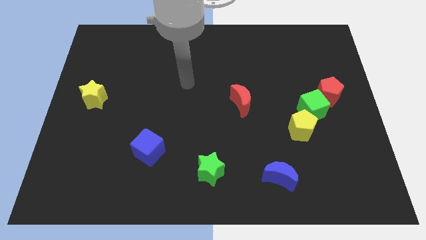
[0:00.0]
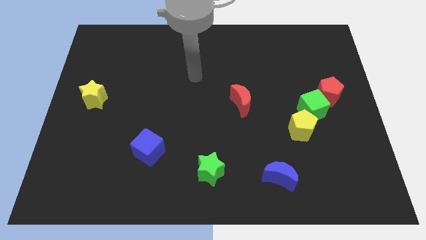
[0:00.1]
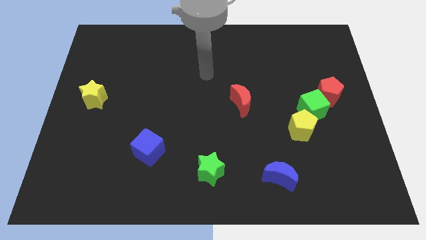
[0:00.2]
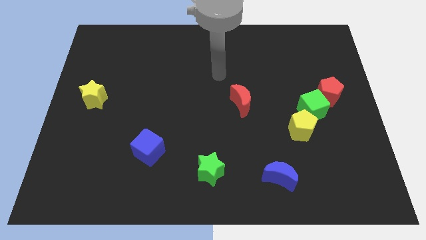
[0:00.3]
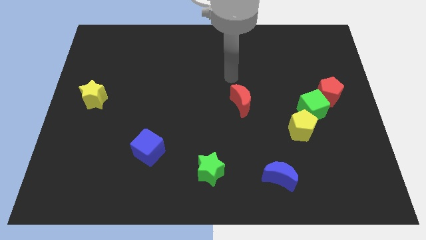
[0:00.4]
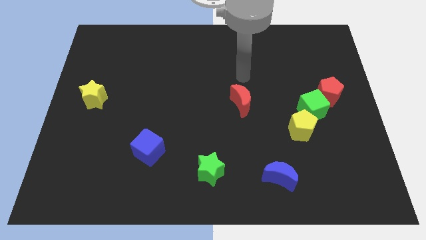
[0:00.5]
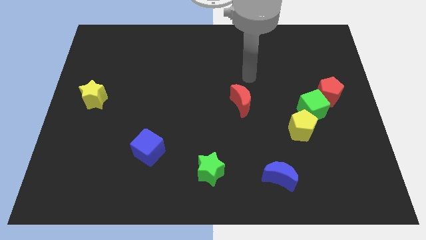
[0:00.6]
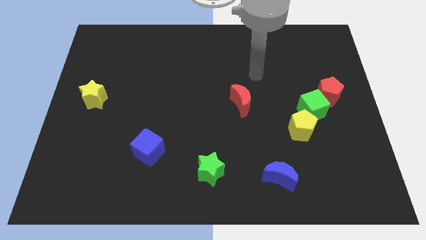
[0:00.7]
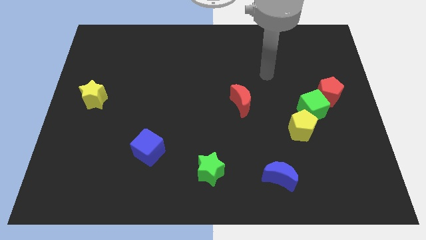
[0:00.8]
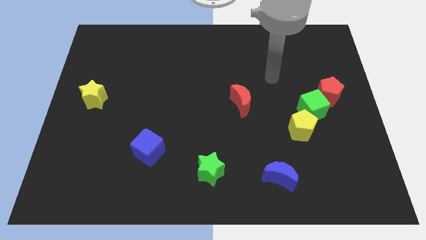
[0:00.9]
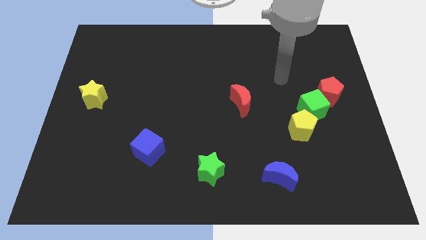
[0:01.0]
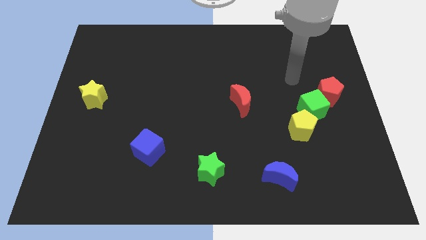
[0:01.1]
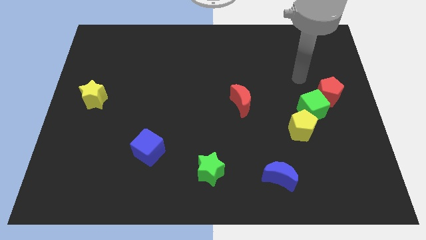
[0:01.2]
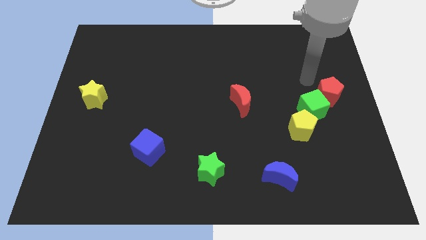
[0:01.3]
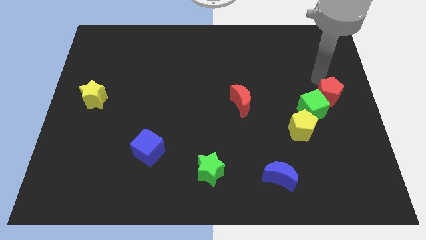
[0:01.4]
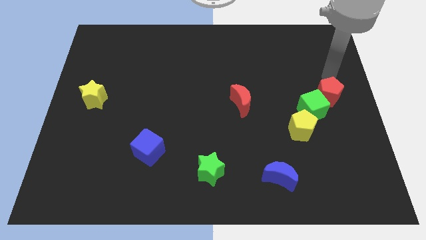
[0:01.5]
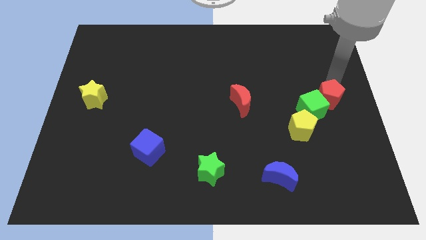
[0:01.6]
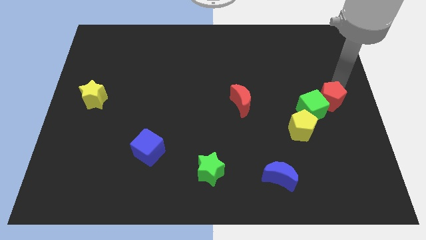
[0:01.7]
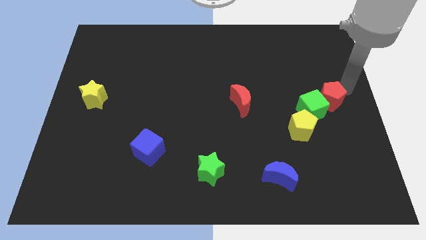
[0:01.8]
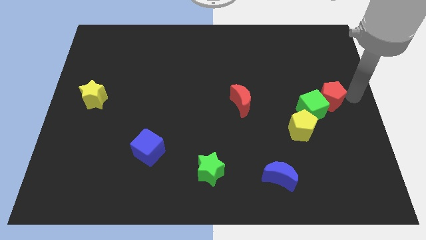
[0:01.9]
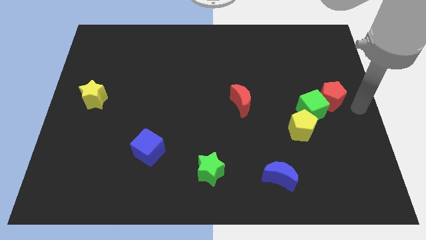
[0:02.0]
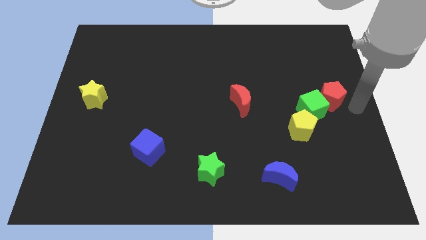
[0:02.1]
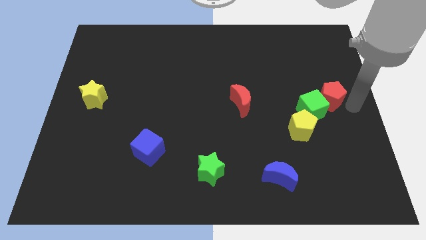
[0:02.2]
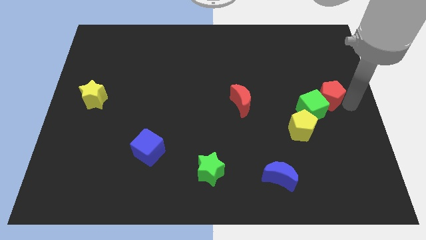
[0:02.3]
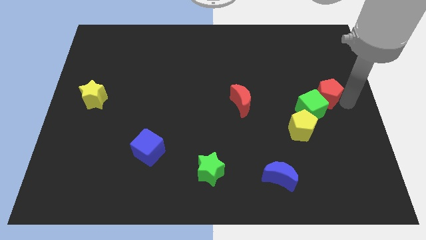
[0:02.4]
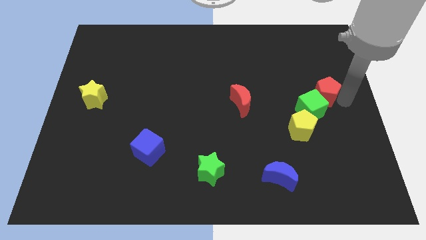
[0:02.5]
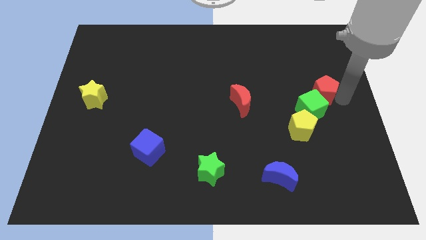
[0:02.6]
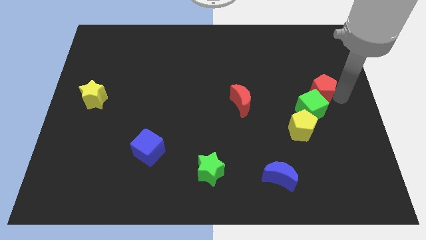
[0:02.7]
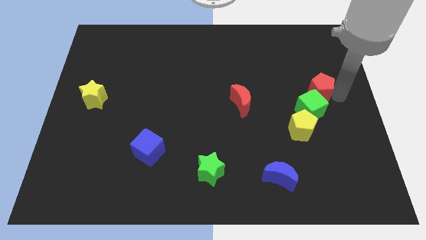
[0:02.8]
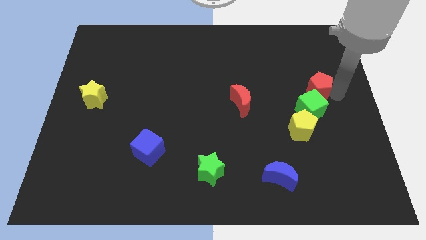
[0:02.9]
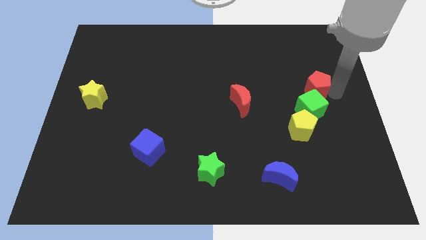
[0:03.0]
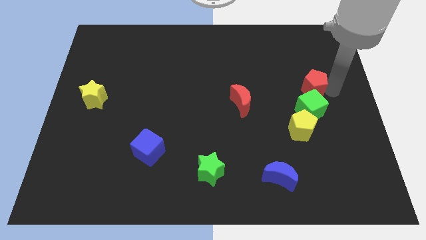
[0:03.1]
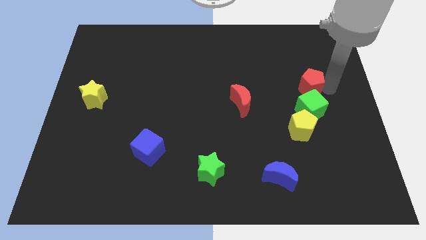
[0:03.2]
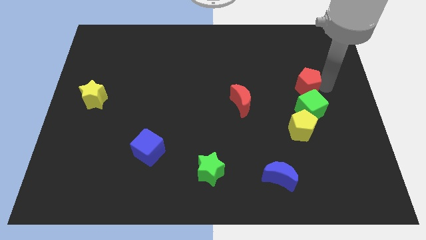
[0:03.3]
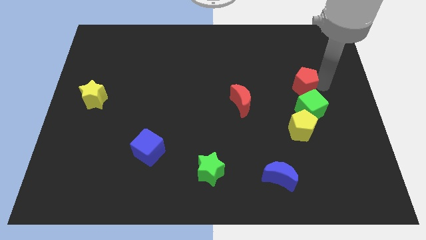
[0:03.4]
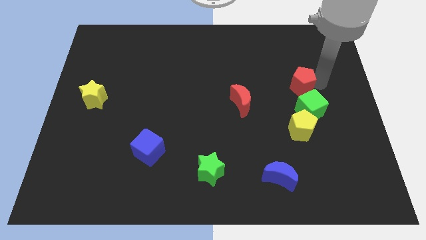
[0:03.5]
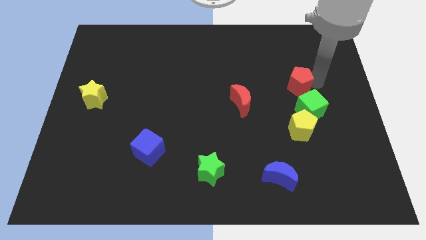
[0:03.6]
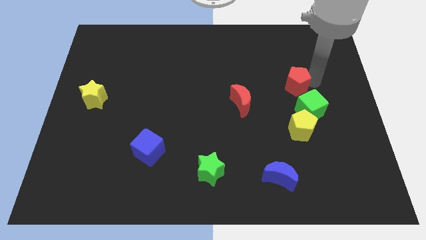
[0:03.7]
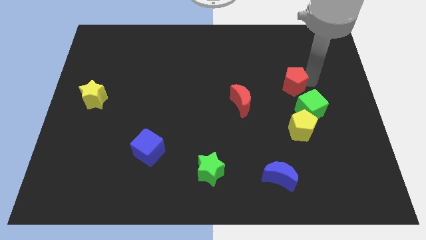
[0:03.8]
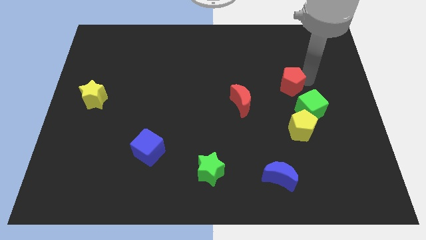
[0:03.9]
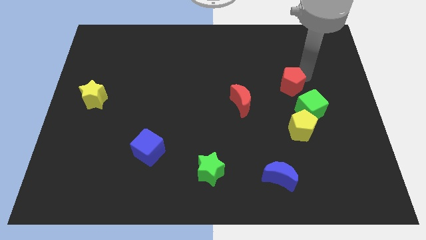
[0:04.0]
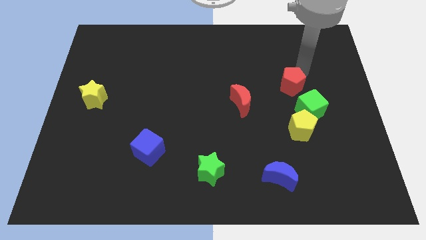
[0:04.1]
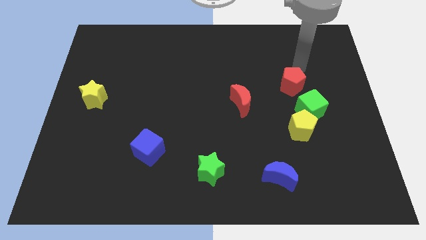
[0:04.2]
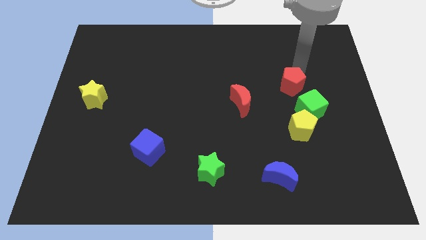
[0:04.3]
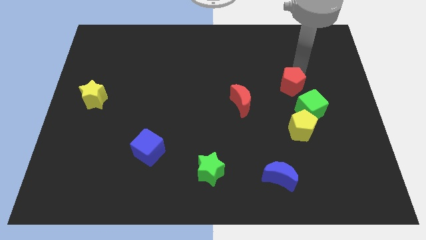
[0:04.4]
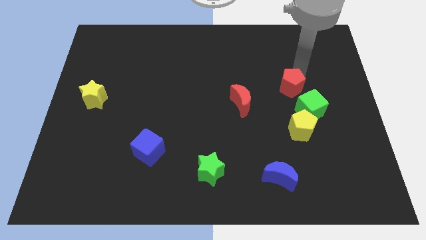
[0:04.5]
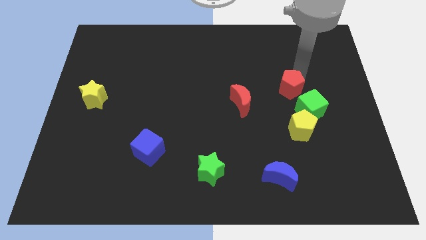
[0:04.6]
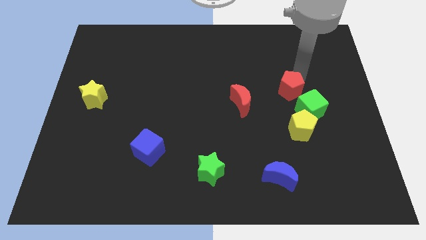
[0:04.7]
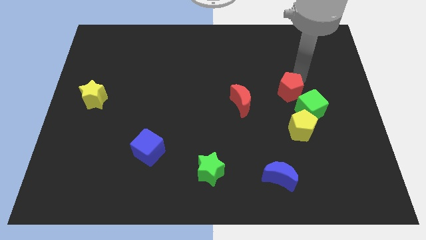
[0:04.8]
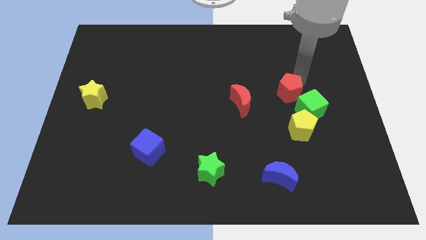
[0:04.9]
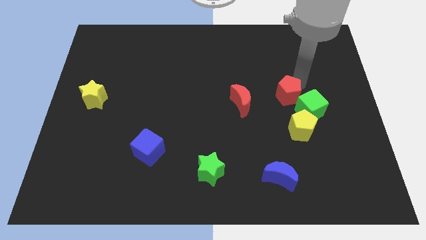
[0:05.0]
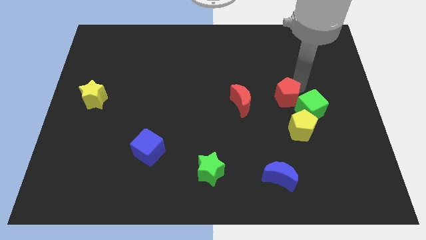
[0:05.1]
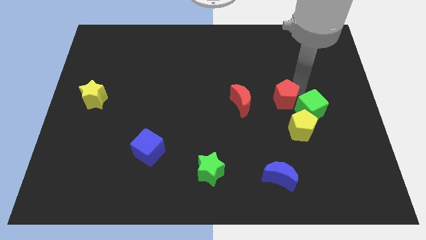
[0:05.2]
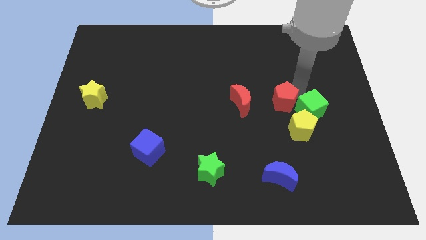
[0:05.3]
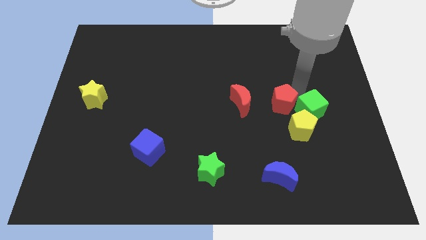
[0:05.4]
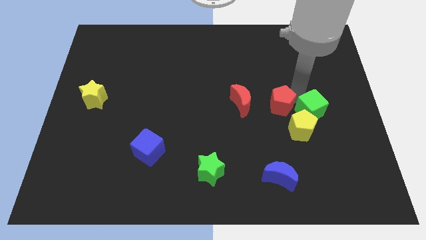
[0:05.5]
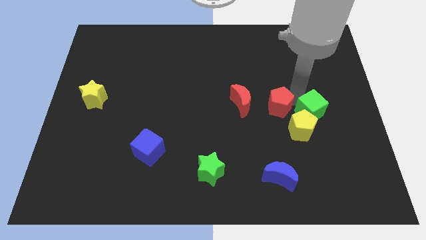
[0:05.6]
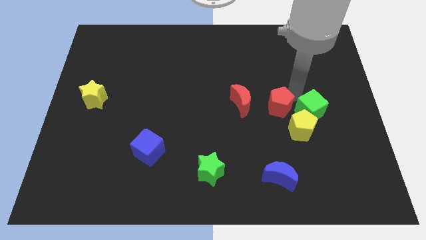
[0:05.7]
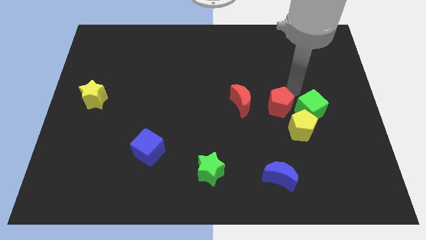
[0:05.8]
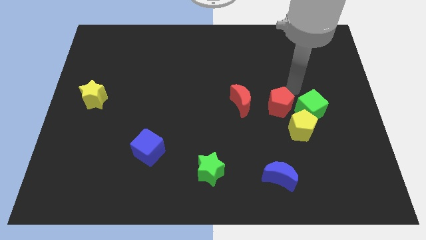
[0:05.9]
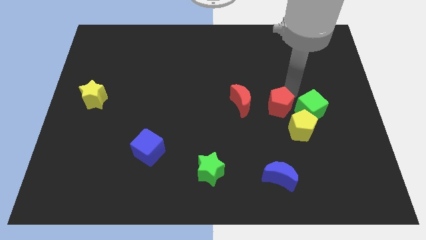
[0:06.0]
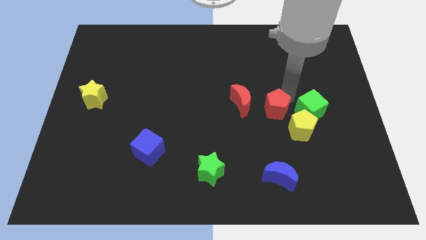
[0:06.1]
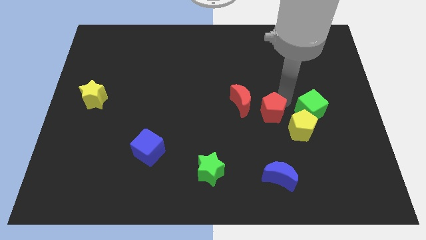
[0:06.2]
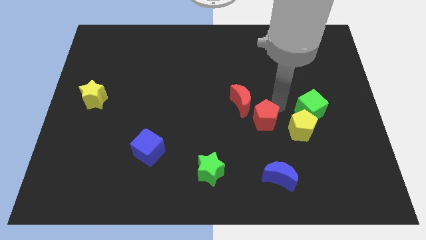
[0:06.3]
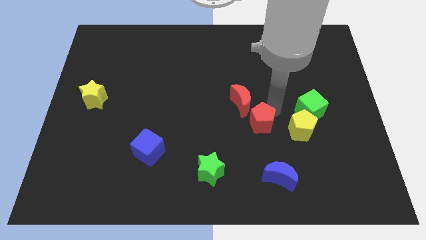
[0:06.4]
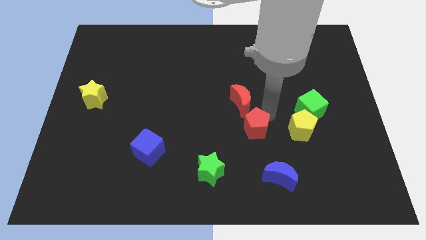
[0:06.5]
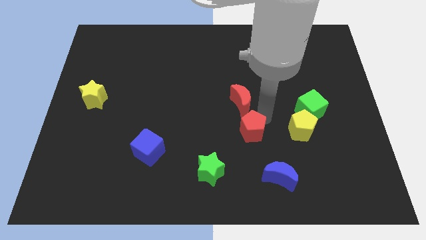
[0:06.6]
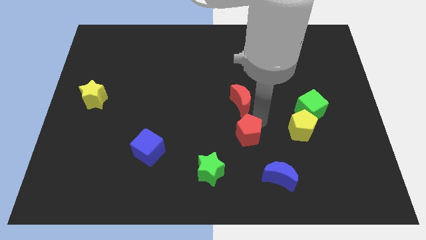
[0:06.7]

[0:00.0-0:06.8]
slide the red pentagon down and left

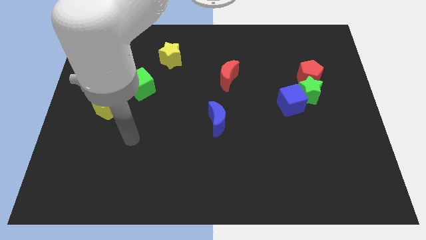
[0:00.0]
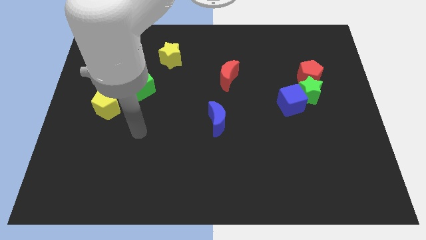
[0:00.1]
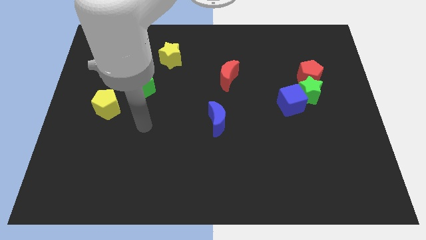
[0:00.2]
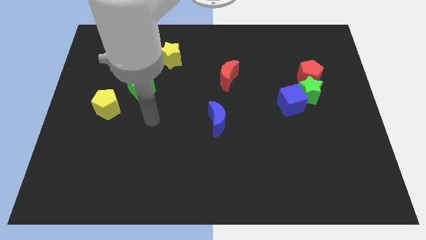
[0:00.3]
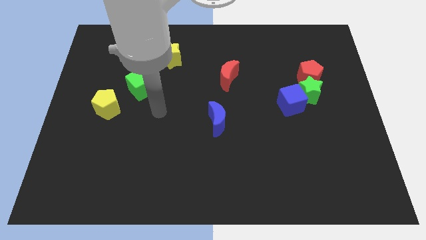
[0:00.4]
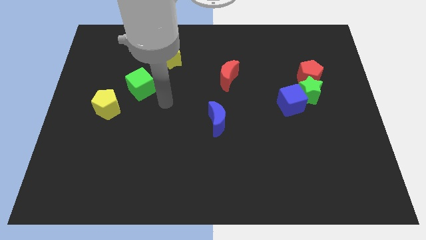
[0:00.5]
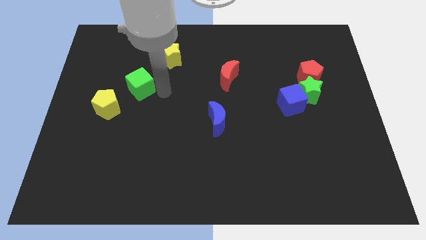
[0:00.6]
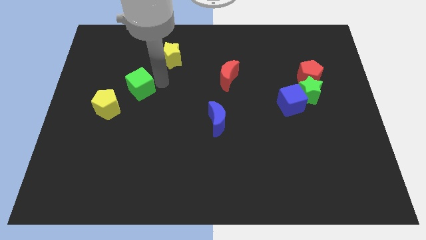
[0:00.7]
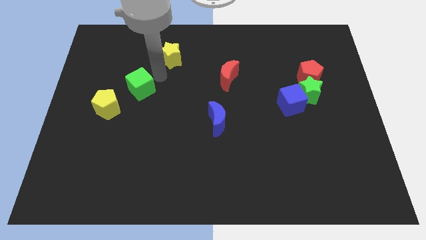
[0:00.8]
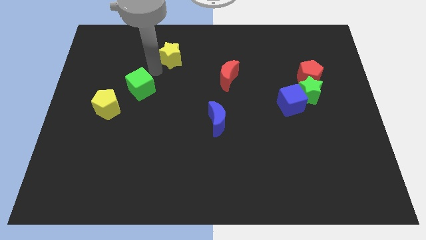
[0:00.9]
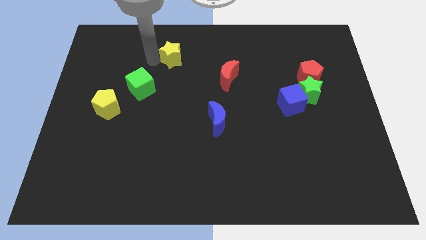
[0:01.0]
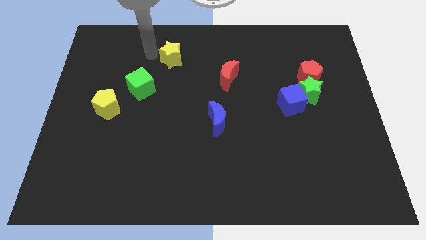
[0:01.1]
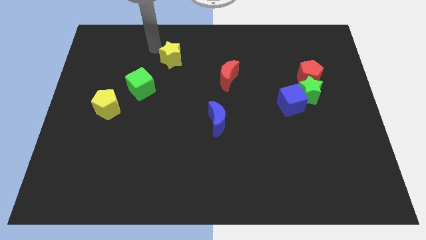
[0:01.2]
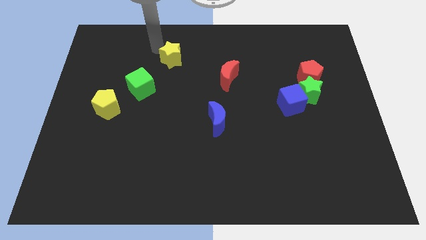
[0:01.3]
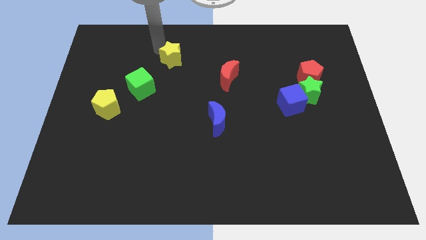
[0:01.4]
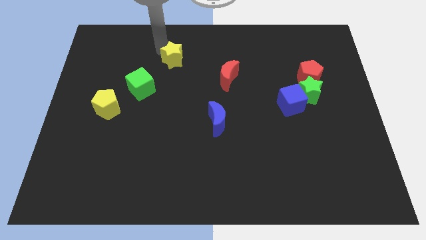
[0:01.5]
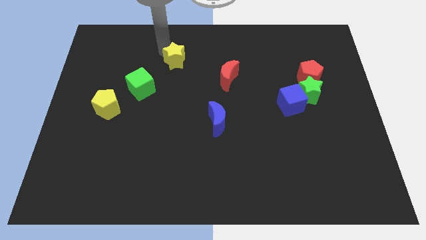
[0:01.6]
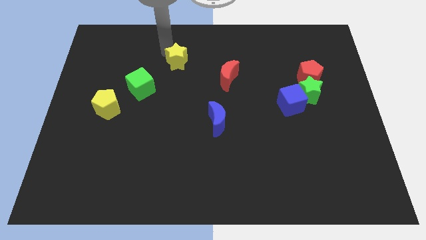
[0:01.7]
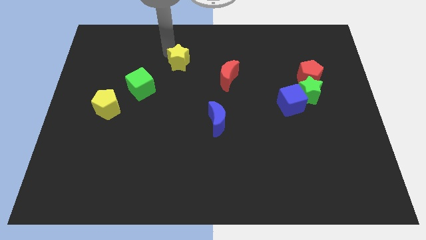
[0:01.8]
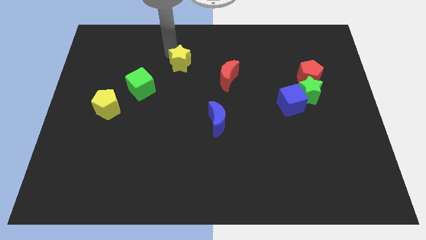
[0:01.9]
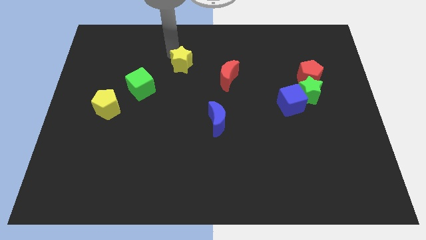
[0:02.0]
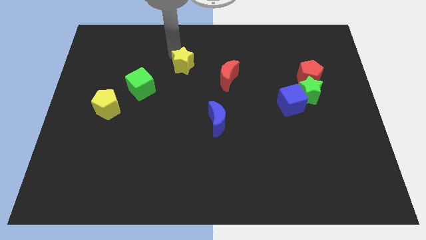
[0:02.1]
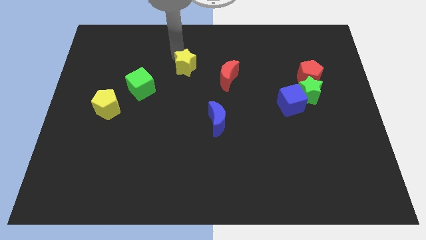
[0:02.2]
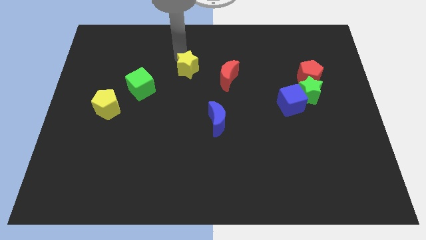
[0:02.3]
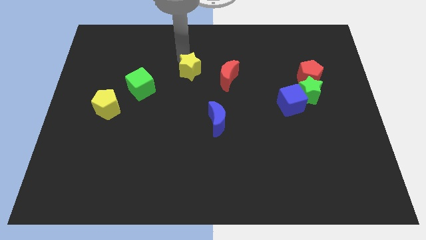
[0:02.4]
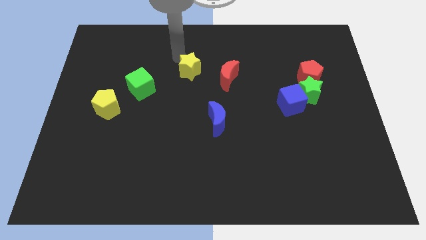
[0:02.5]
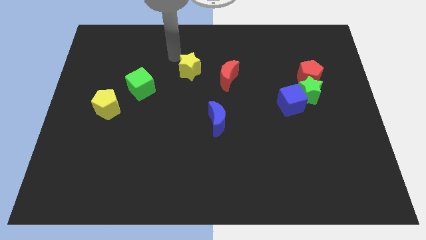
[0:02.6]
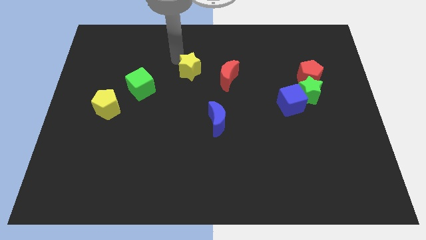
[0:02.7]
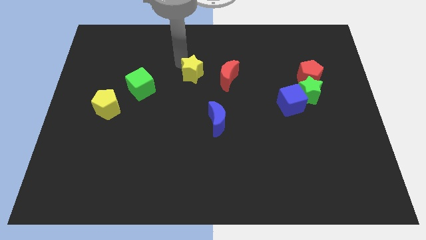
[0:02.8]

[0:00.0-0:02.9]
slightly move the yellow star downwards and right
